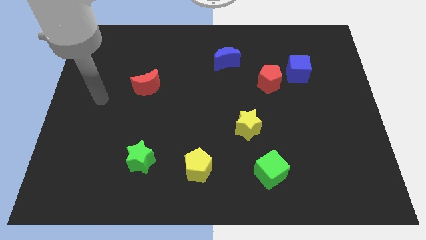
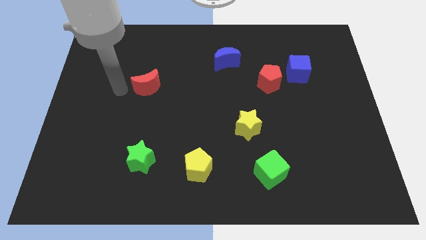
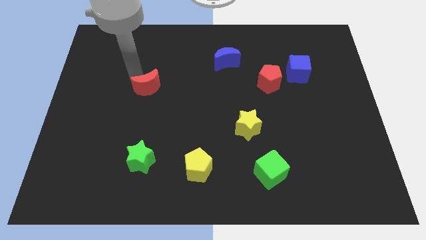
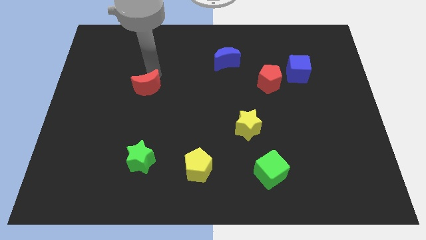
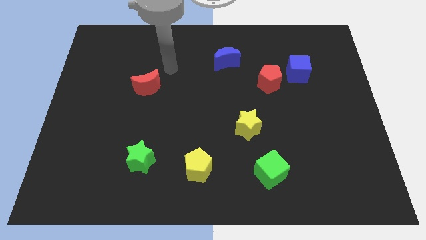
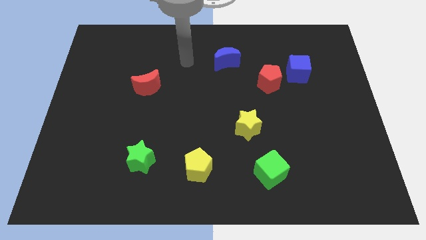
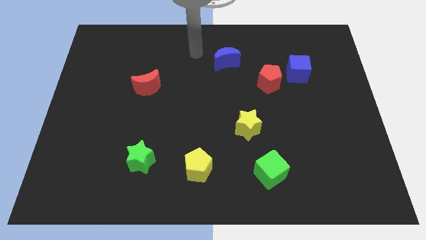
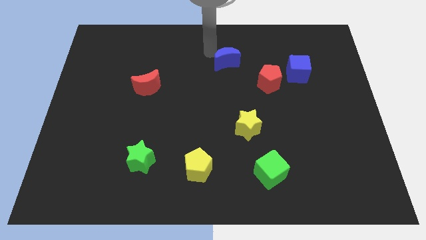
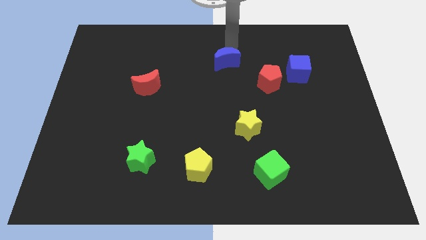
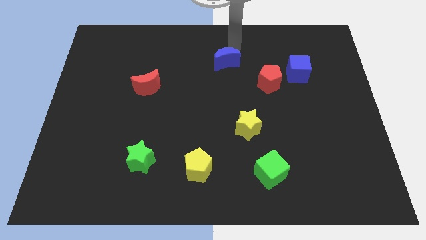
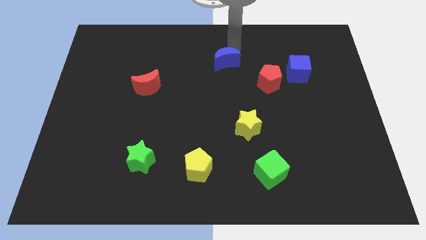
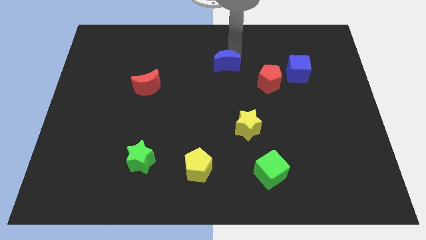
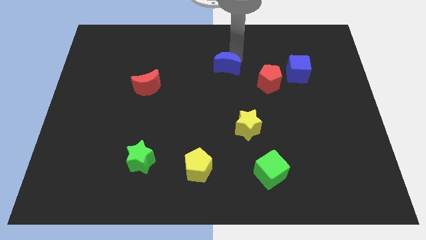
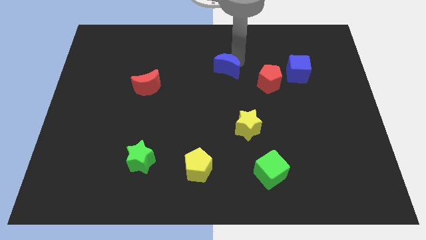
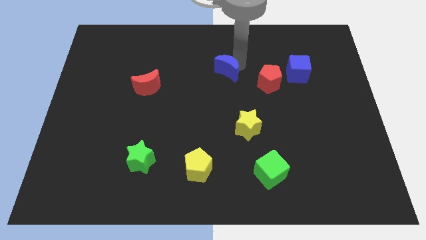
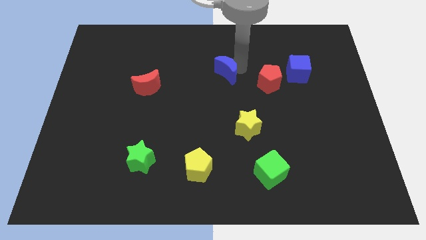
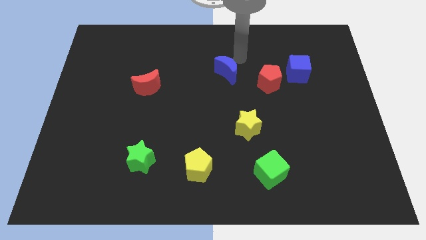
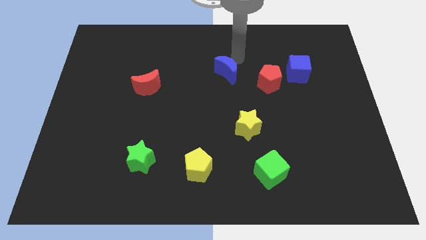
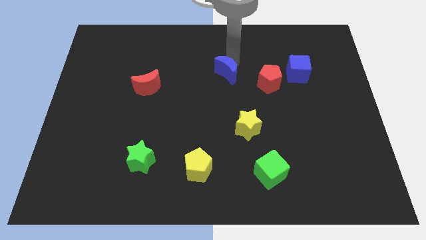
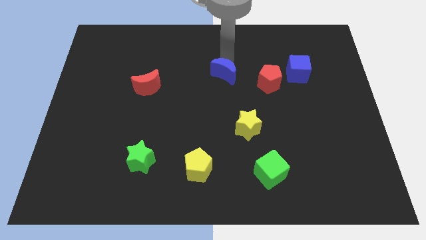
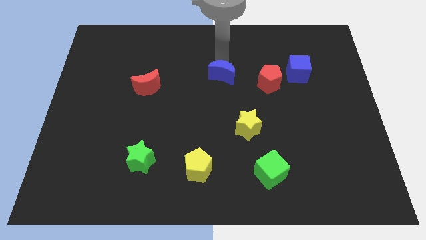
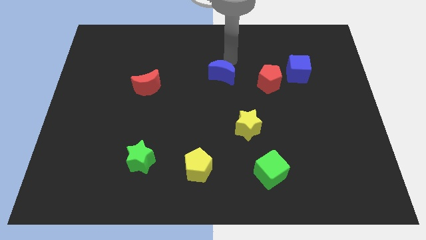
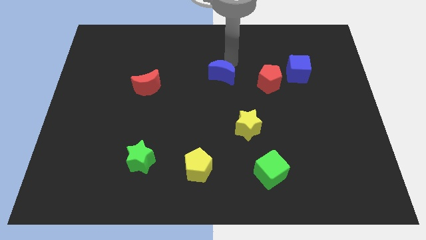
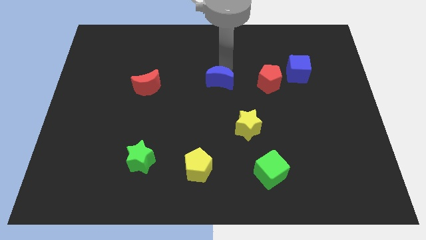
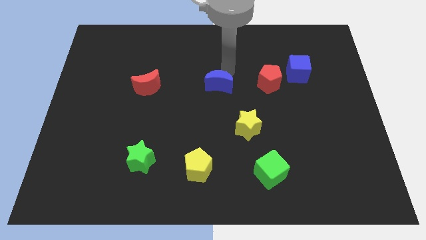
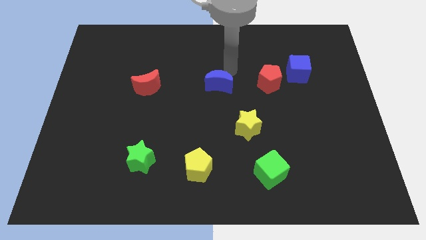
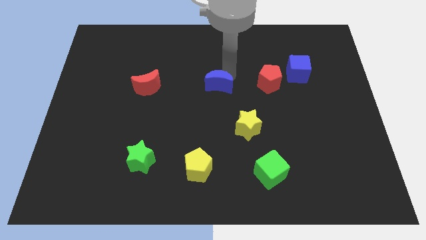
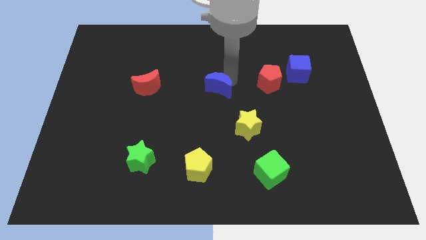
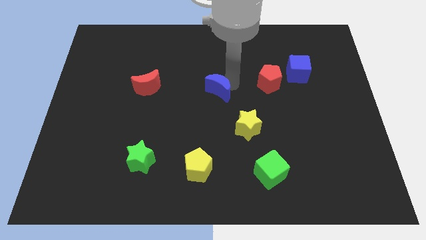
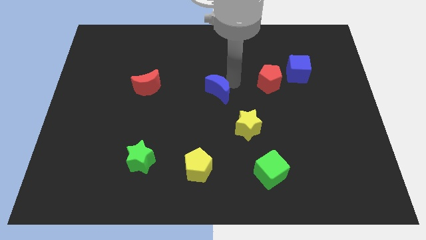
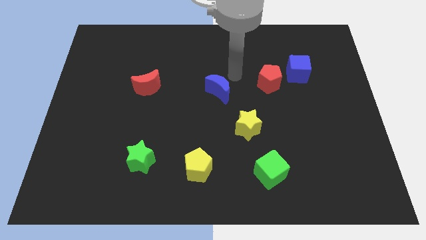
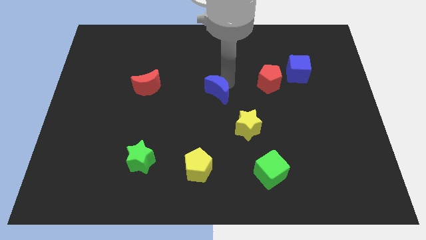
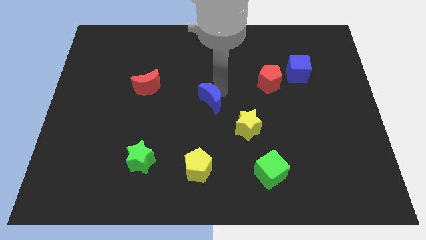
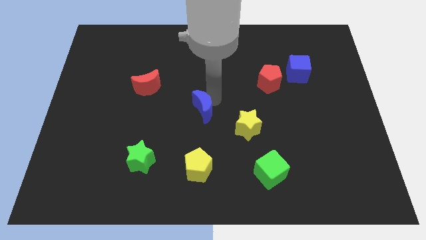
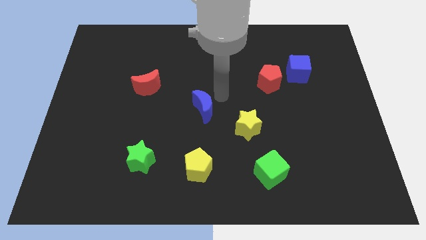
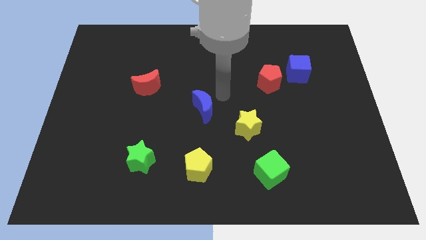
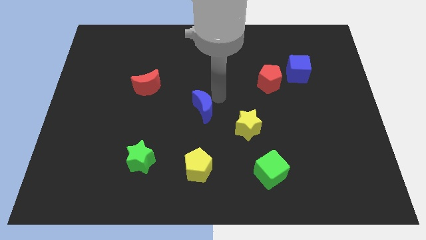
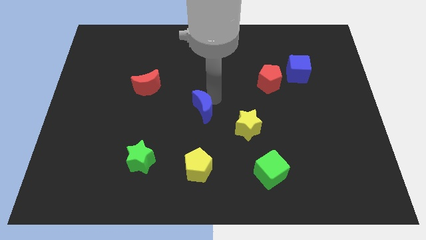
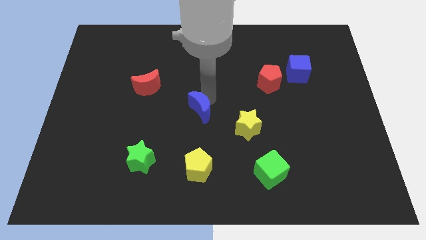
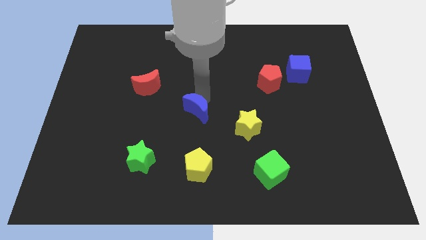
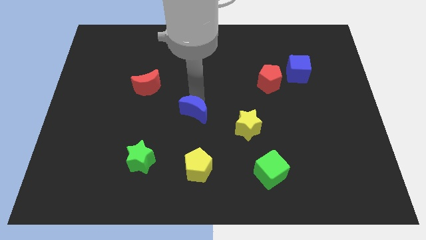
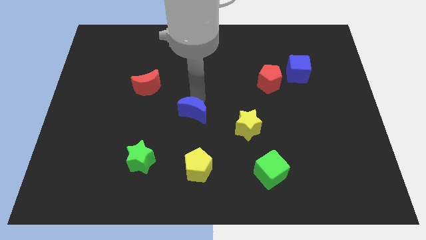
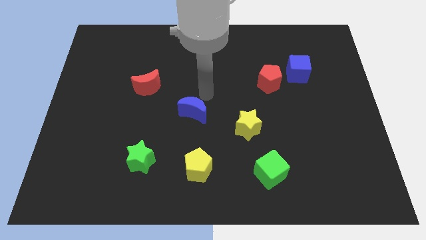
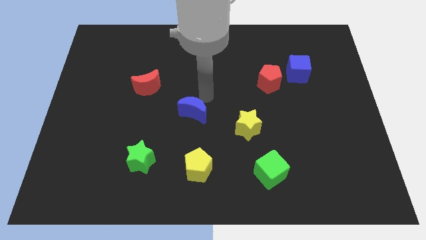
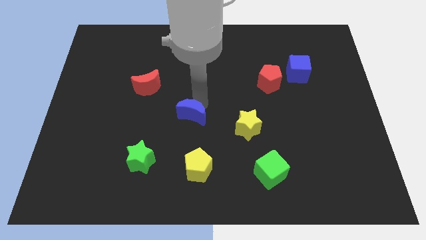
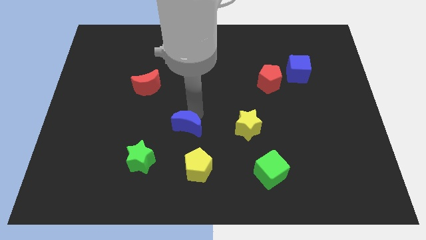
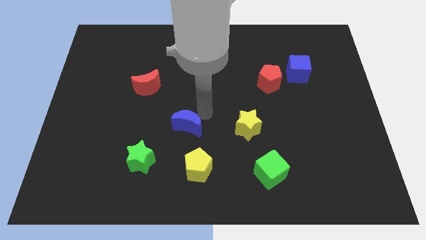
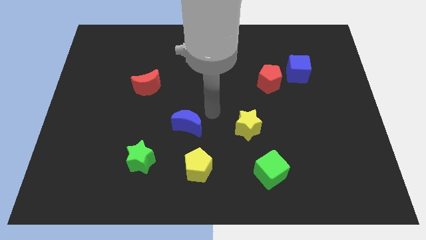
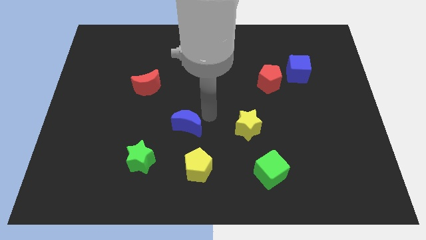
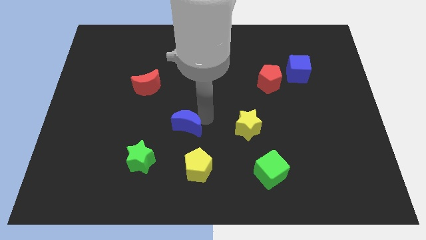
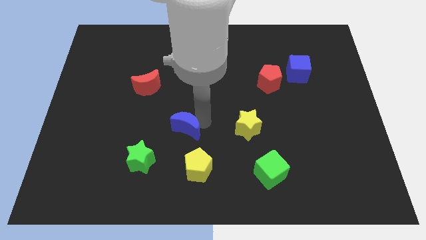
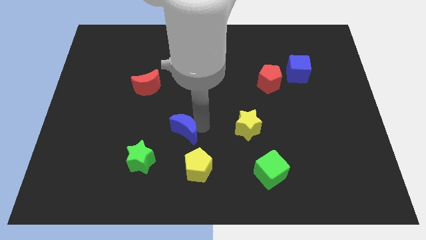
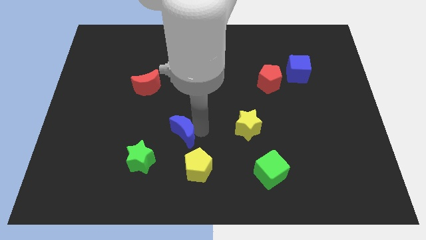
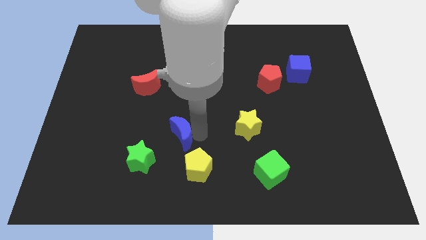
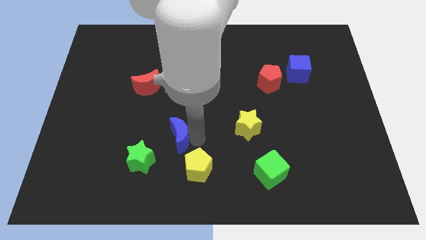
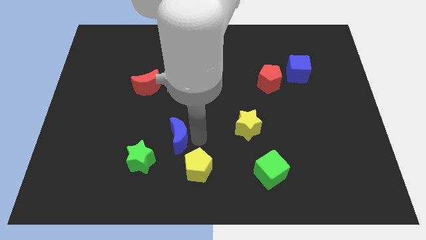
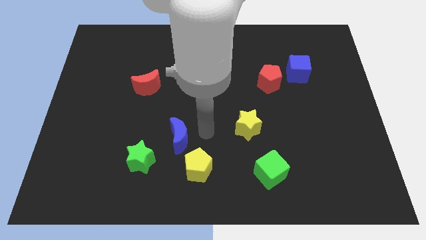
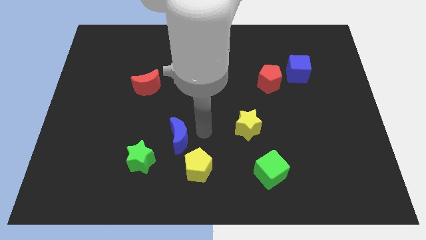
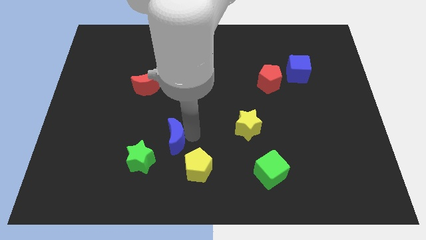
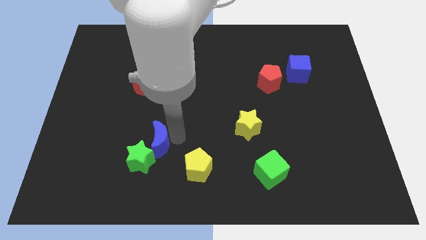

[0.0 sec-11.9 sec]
put the blue moon next to the green star

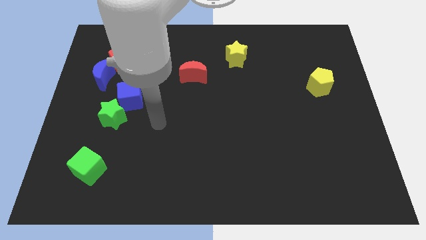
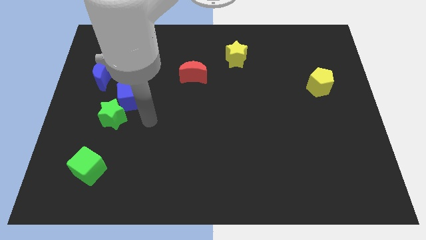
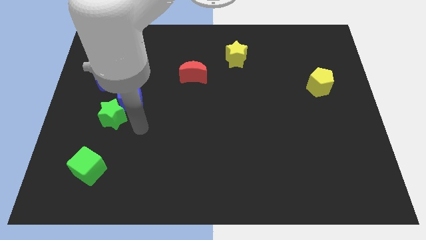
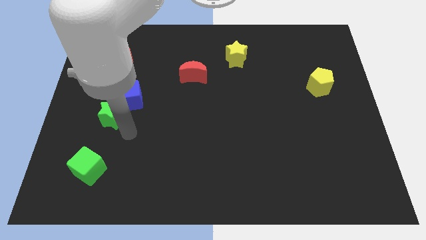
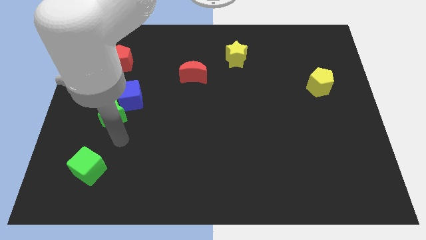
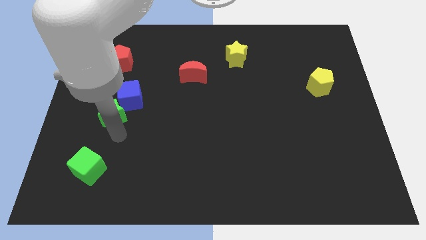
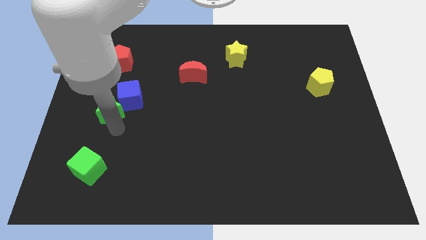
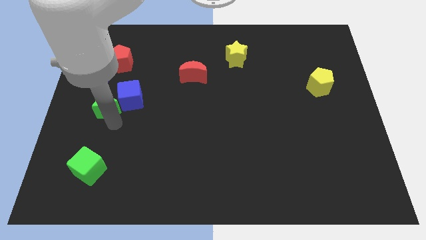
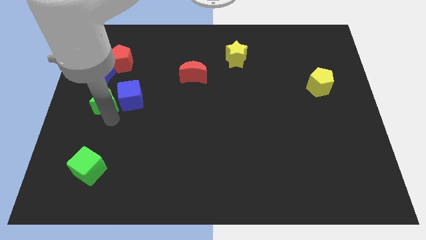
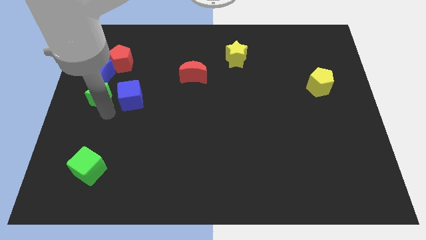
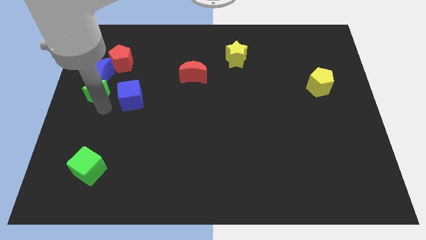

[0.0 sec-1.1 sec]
move the green star towards the blue moon
